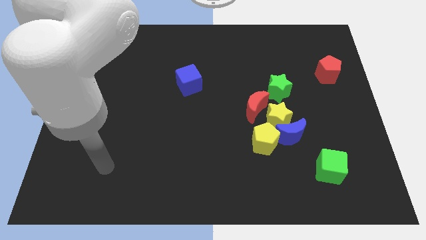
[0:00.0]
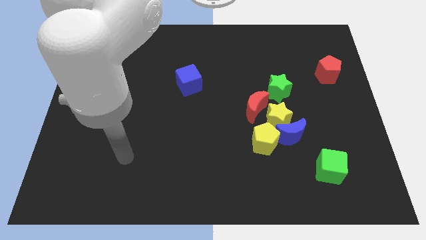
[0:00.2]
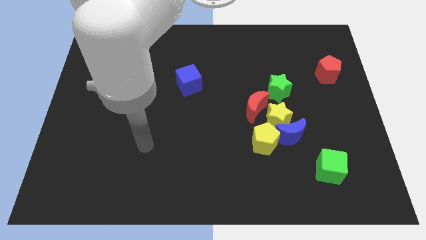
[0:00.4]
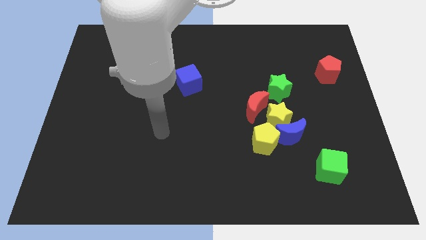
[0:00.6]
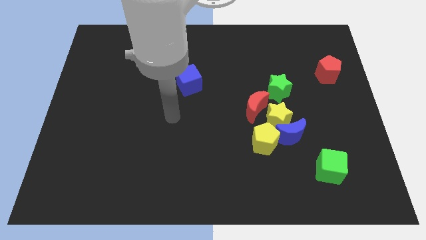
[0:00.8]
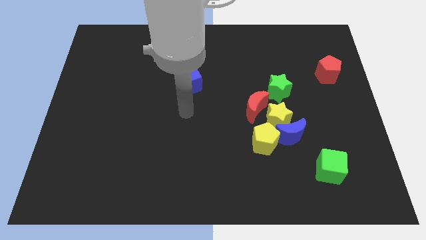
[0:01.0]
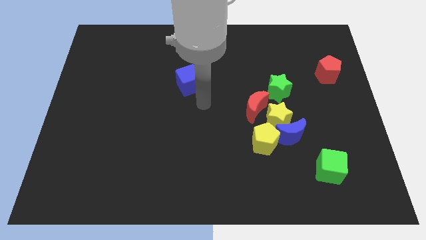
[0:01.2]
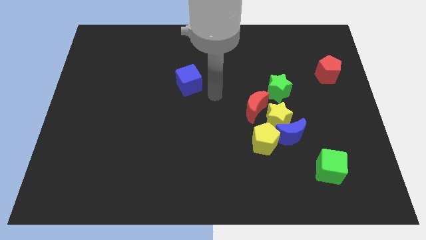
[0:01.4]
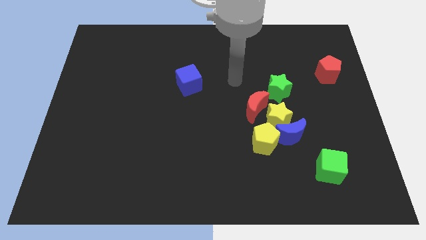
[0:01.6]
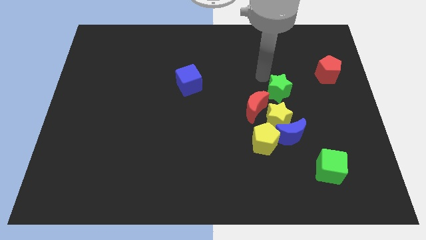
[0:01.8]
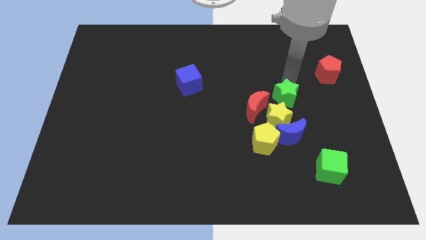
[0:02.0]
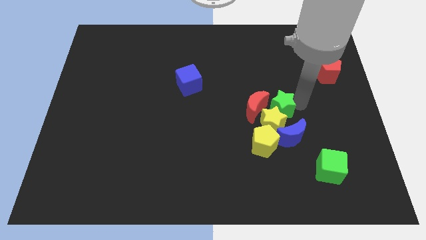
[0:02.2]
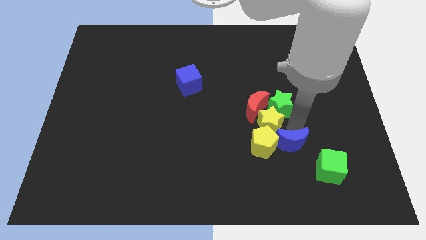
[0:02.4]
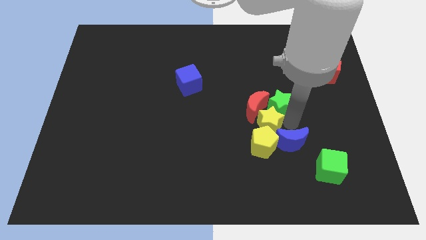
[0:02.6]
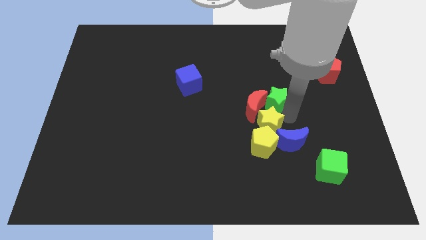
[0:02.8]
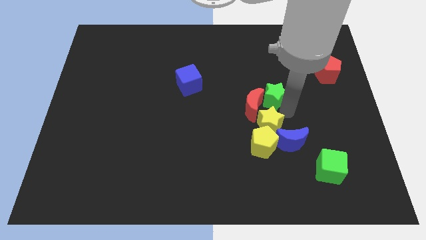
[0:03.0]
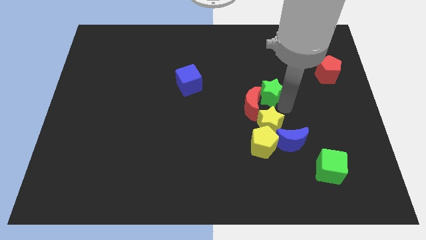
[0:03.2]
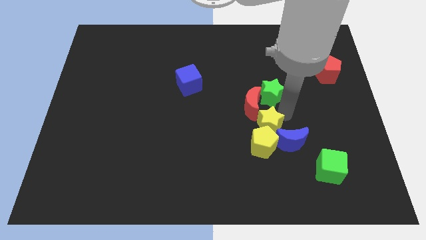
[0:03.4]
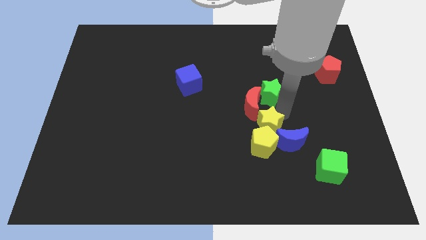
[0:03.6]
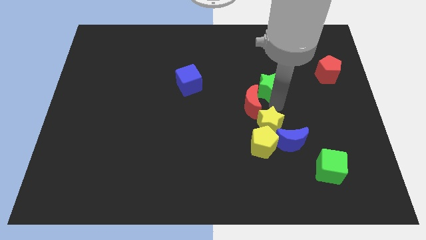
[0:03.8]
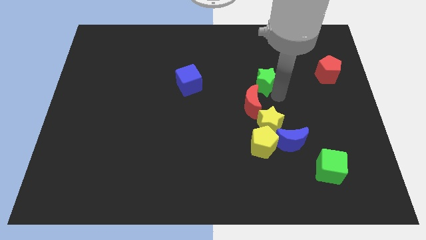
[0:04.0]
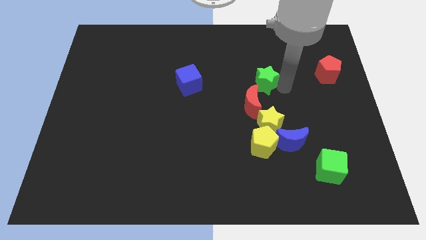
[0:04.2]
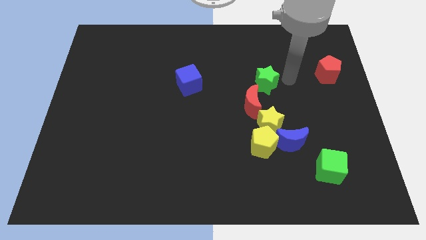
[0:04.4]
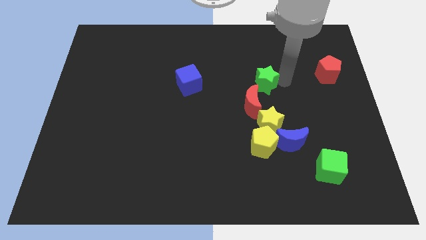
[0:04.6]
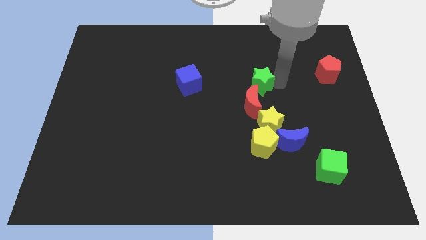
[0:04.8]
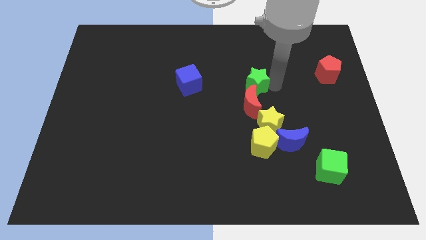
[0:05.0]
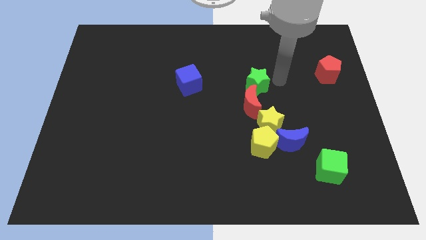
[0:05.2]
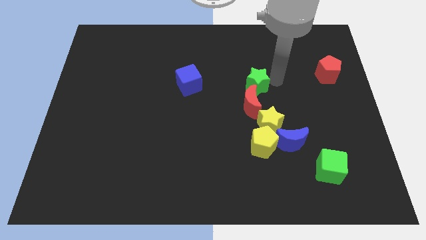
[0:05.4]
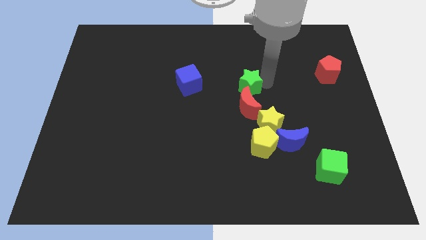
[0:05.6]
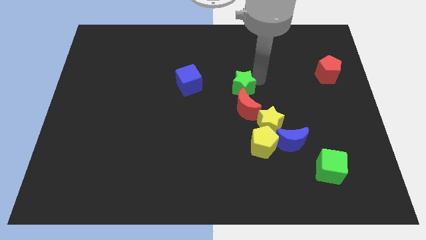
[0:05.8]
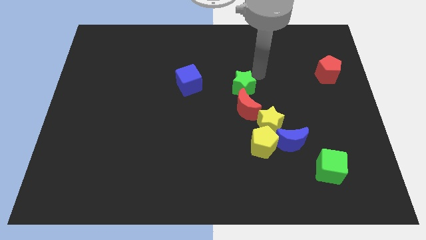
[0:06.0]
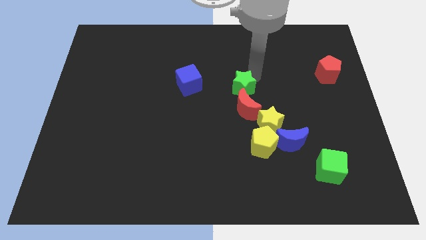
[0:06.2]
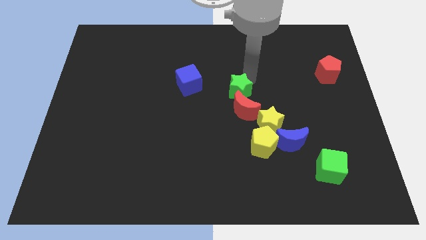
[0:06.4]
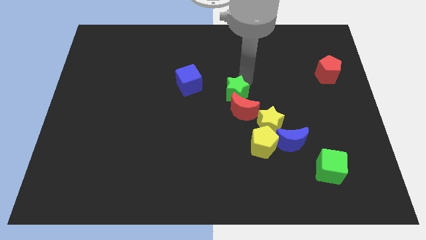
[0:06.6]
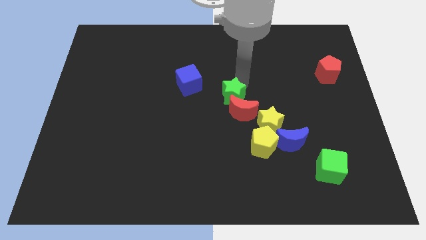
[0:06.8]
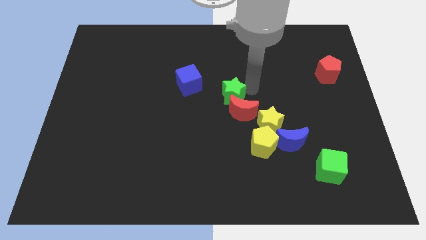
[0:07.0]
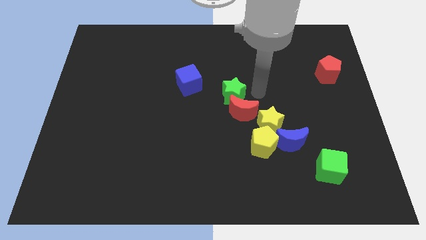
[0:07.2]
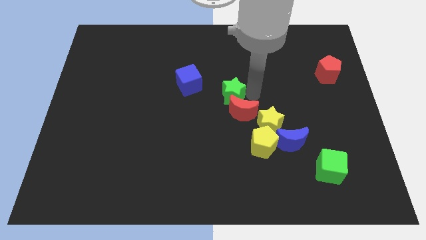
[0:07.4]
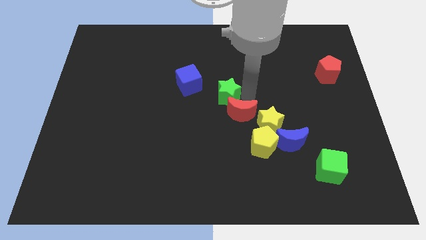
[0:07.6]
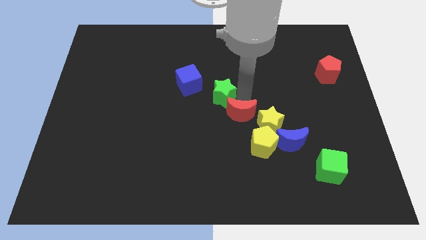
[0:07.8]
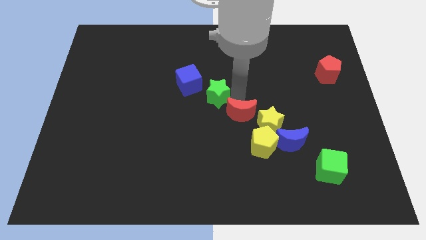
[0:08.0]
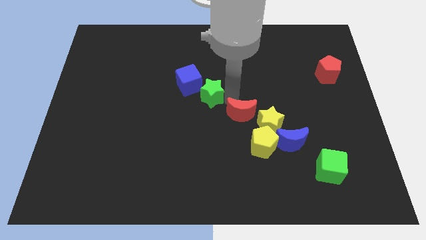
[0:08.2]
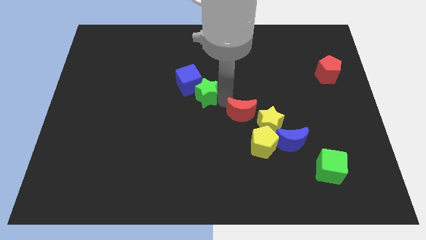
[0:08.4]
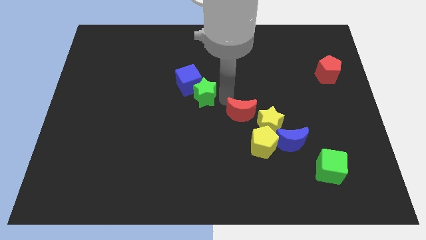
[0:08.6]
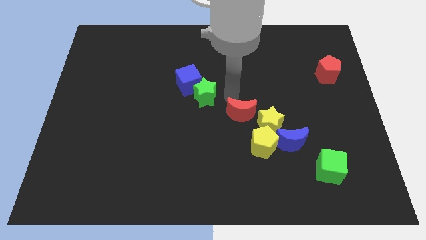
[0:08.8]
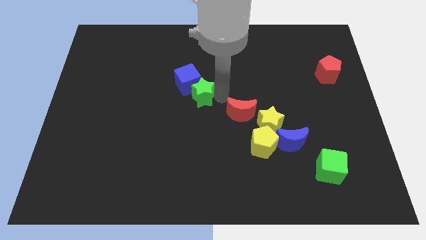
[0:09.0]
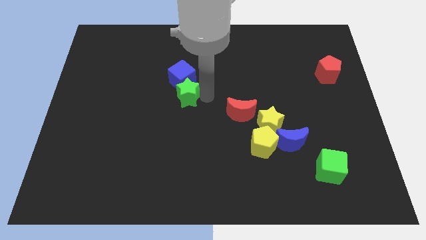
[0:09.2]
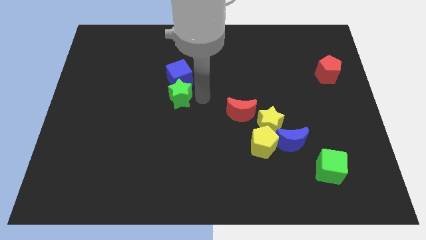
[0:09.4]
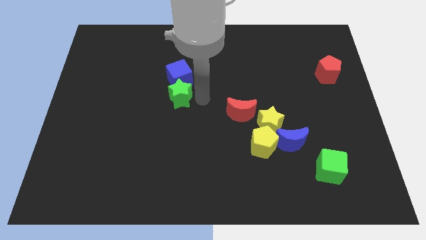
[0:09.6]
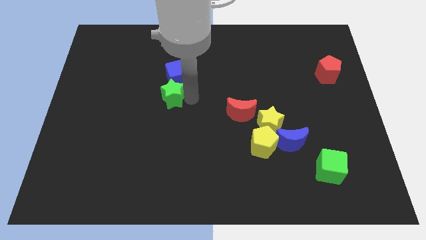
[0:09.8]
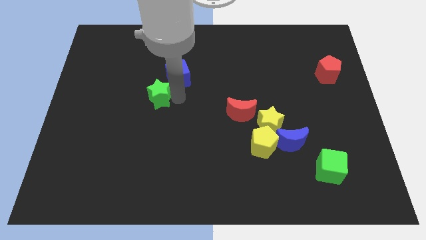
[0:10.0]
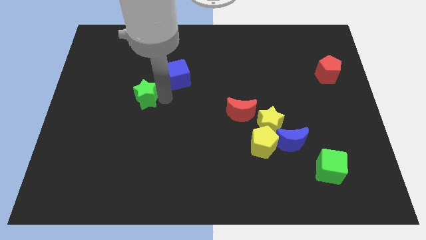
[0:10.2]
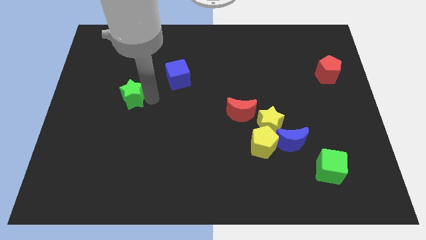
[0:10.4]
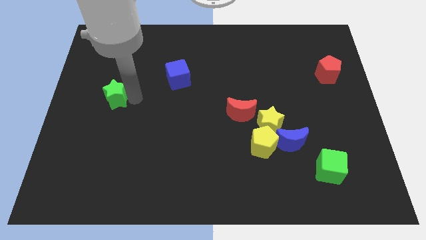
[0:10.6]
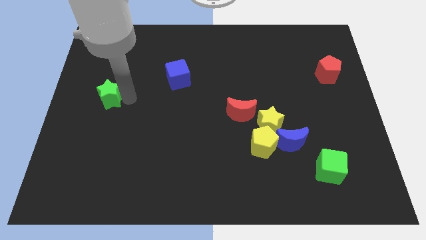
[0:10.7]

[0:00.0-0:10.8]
put the green star to the left side

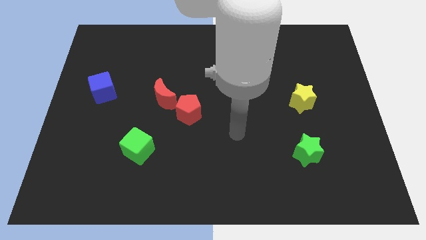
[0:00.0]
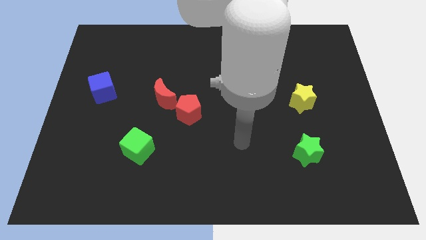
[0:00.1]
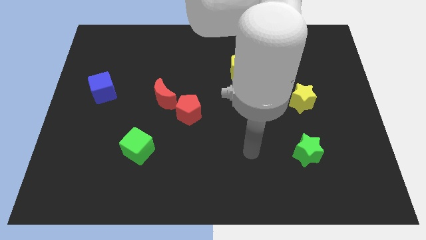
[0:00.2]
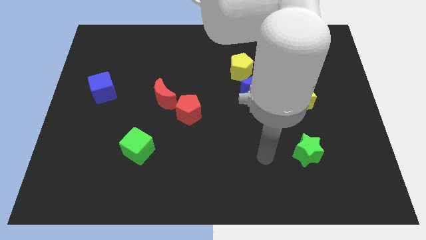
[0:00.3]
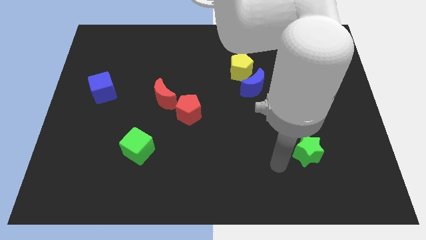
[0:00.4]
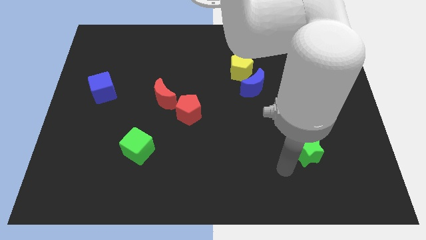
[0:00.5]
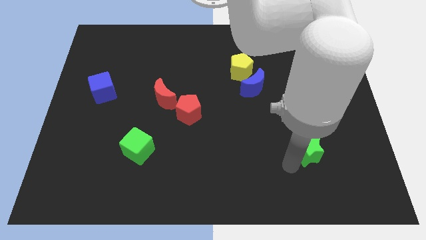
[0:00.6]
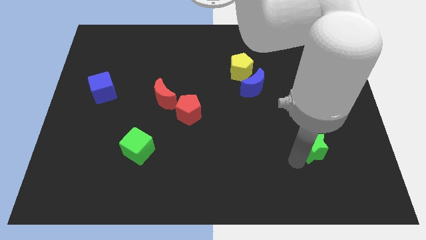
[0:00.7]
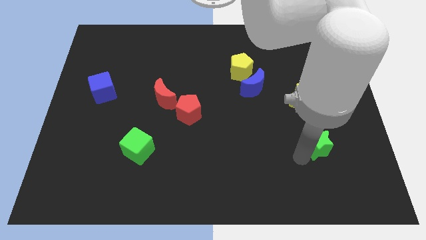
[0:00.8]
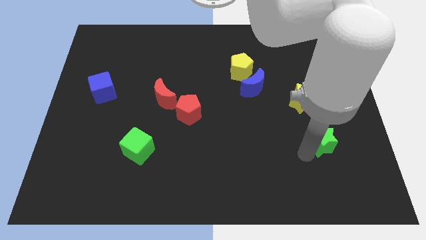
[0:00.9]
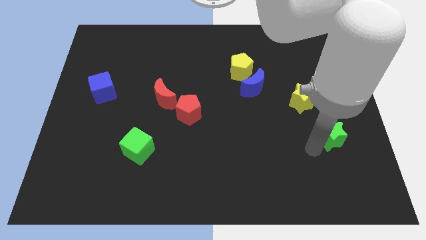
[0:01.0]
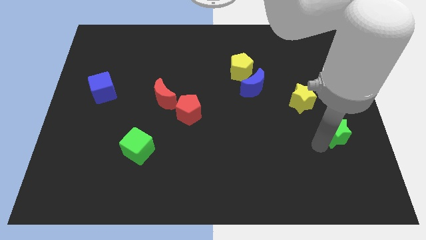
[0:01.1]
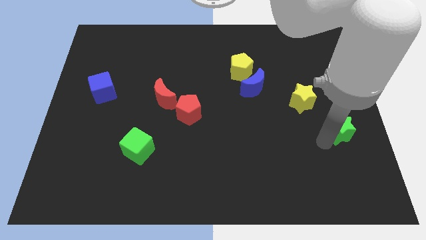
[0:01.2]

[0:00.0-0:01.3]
put the green star to the right side
